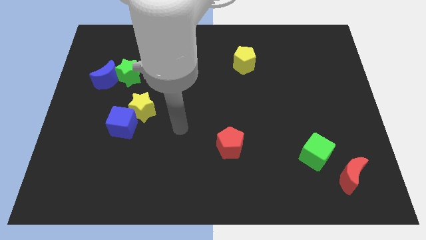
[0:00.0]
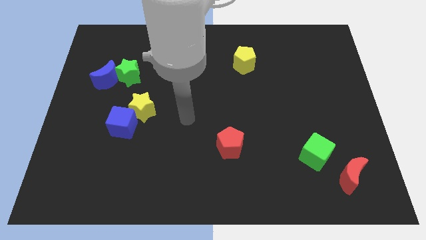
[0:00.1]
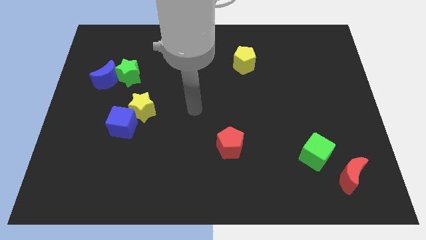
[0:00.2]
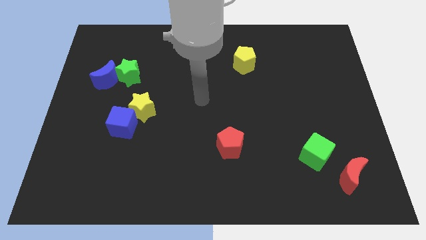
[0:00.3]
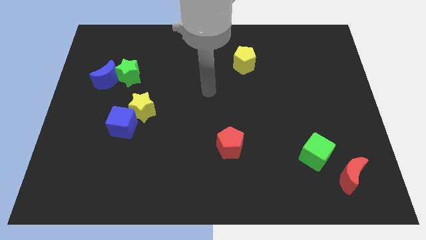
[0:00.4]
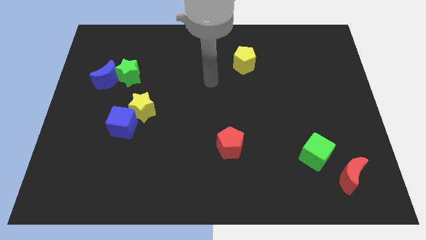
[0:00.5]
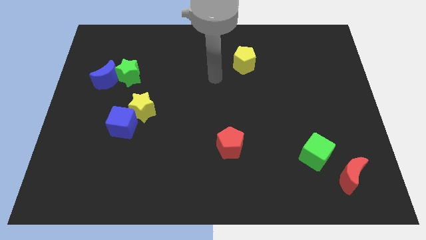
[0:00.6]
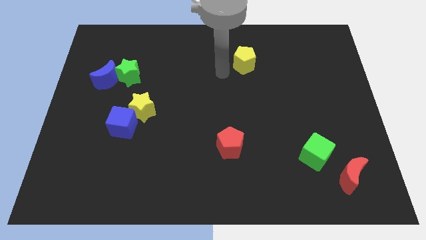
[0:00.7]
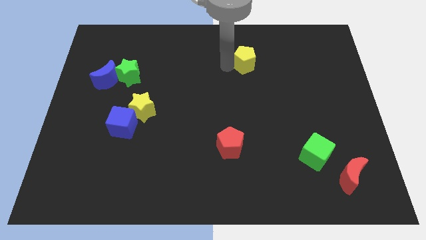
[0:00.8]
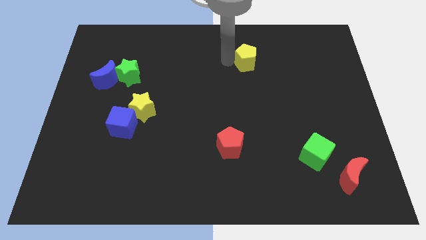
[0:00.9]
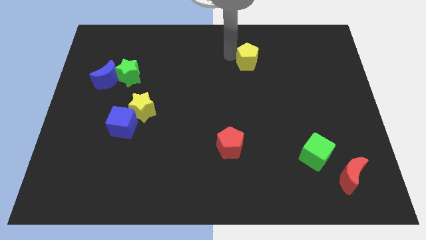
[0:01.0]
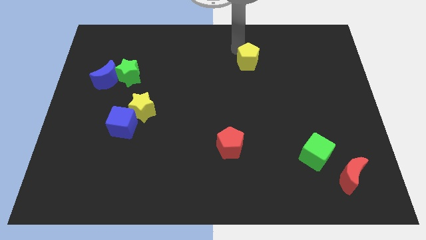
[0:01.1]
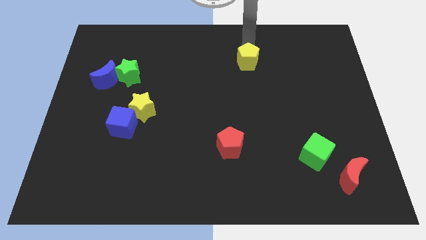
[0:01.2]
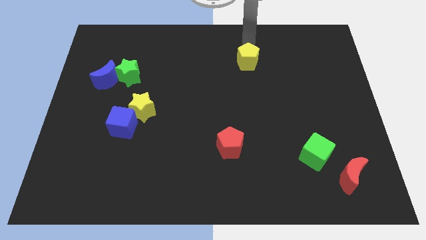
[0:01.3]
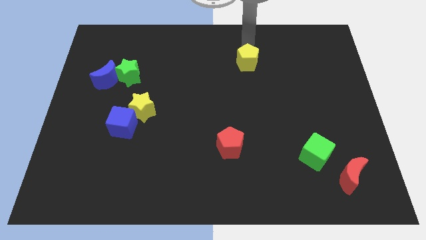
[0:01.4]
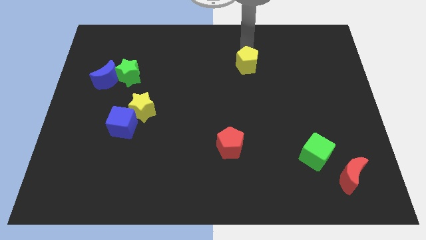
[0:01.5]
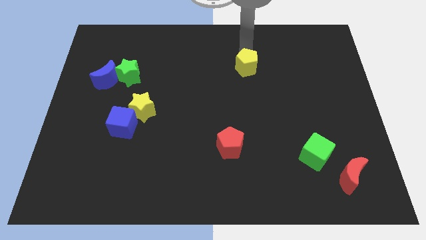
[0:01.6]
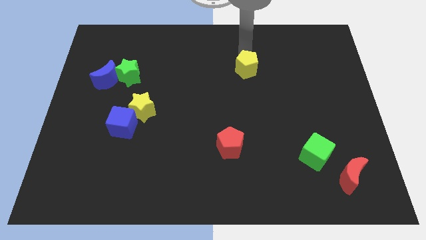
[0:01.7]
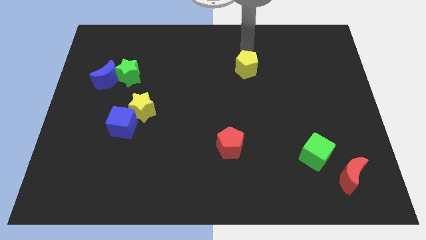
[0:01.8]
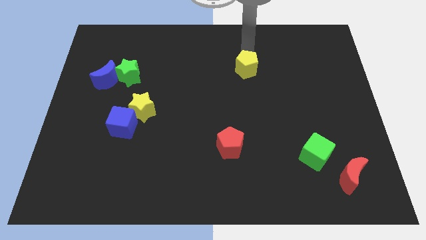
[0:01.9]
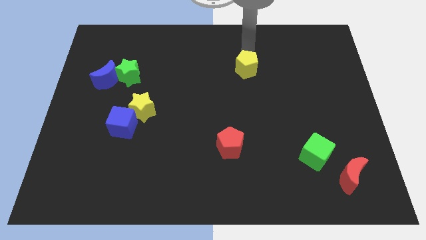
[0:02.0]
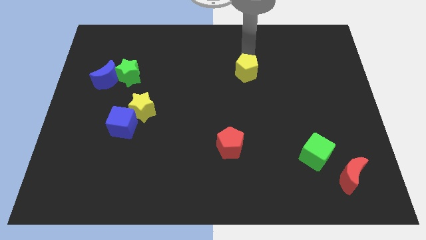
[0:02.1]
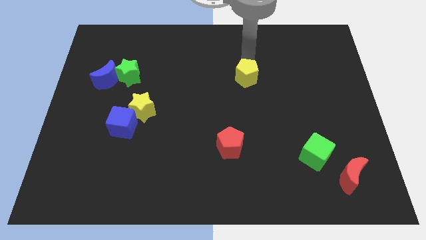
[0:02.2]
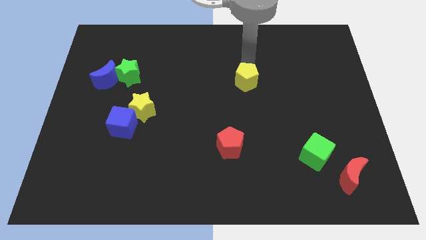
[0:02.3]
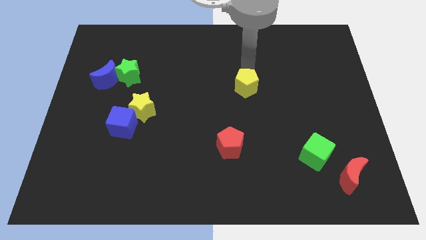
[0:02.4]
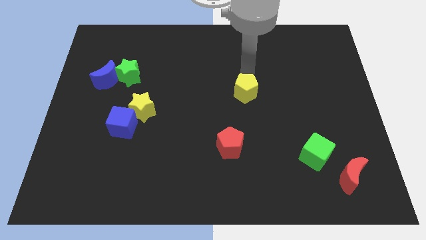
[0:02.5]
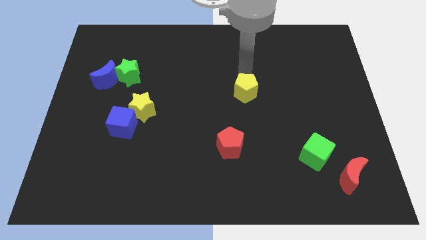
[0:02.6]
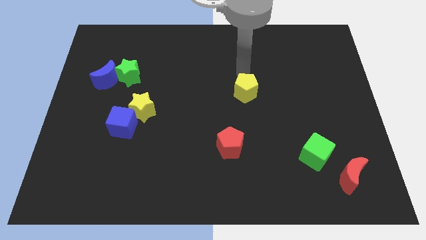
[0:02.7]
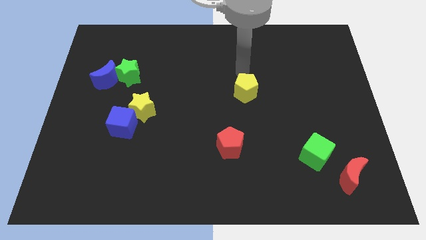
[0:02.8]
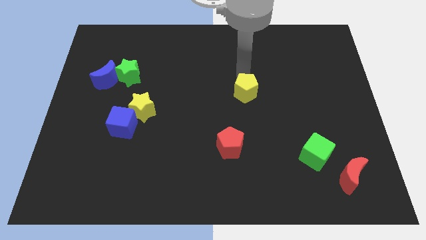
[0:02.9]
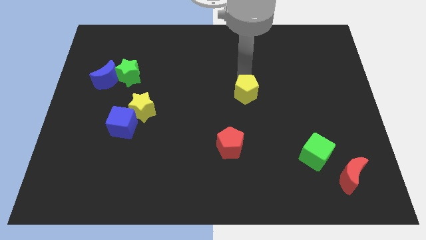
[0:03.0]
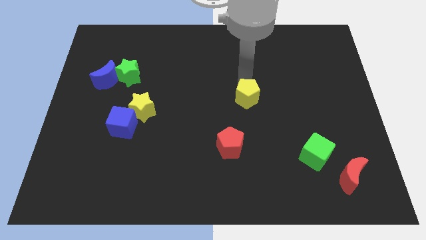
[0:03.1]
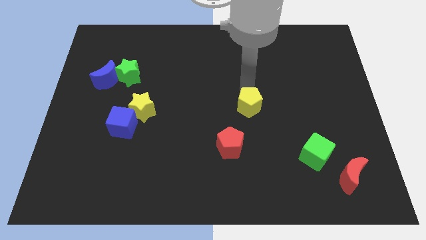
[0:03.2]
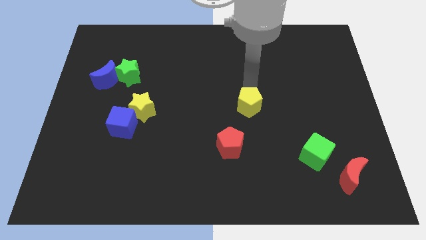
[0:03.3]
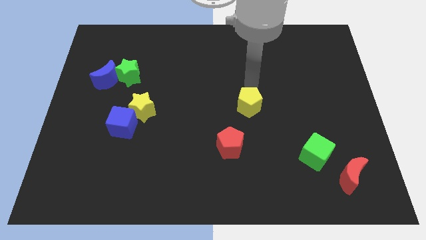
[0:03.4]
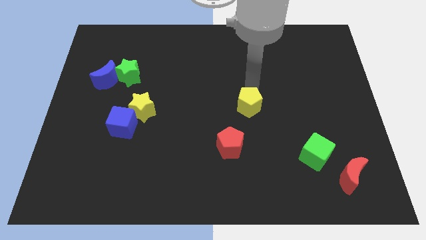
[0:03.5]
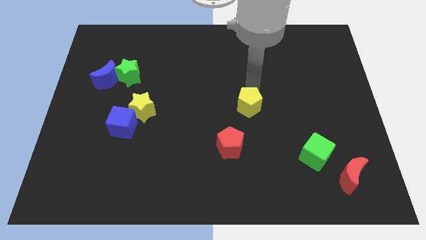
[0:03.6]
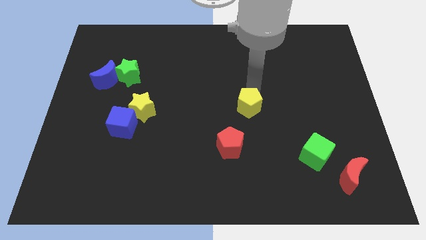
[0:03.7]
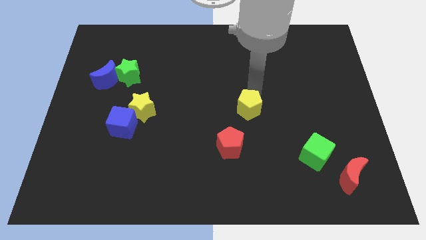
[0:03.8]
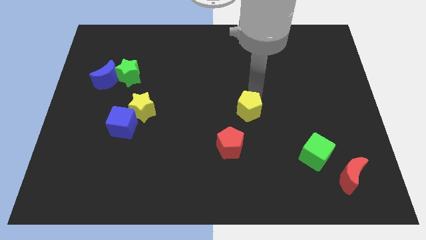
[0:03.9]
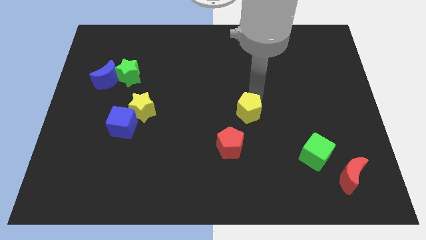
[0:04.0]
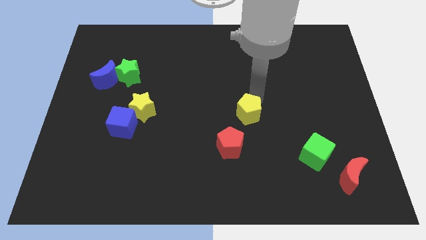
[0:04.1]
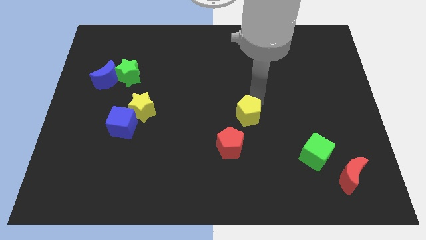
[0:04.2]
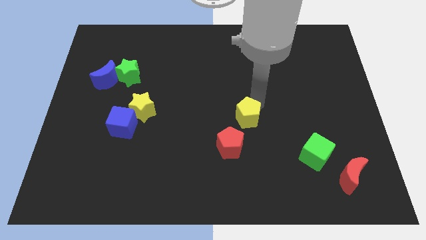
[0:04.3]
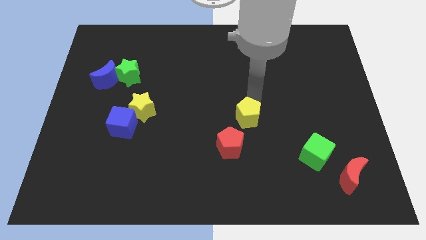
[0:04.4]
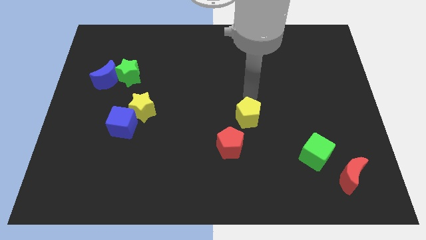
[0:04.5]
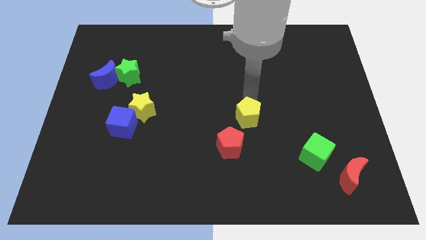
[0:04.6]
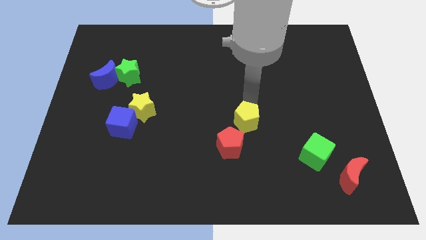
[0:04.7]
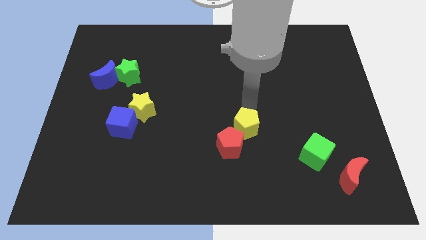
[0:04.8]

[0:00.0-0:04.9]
move the yellow pentagon down

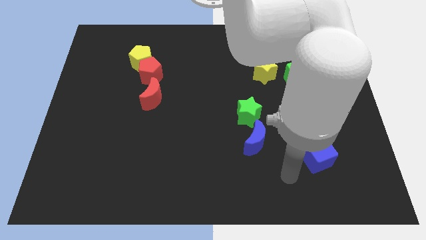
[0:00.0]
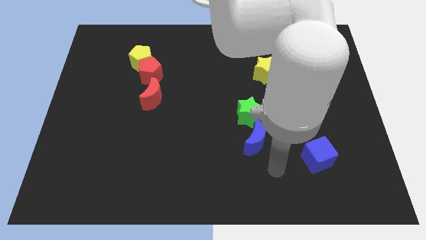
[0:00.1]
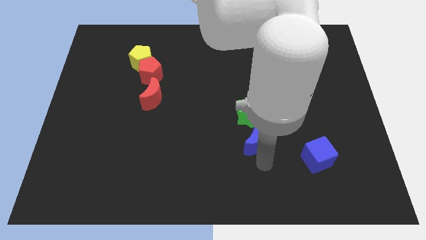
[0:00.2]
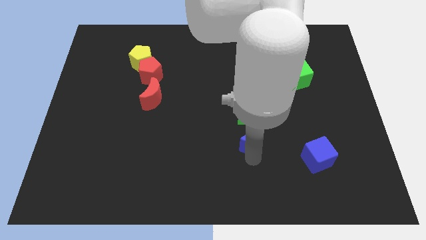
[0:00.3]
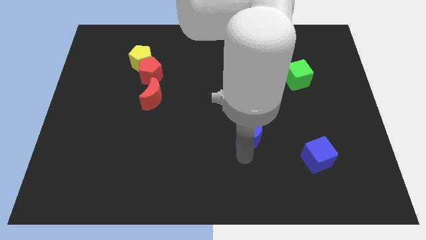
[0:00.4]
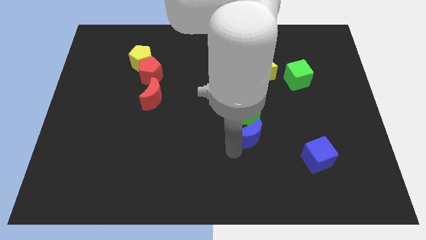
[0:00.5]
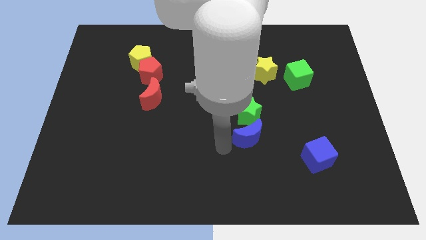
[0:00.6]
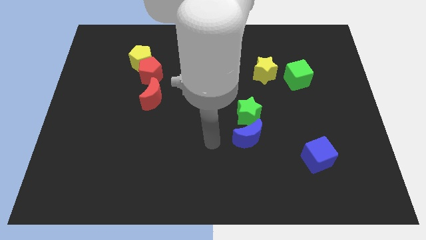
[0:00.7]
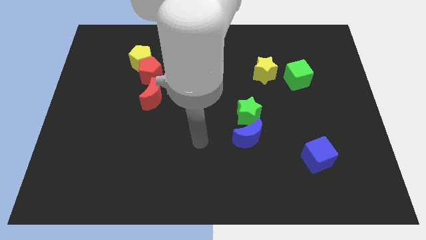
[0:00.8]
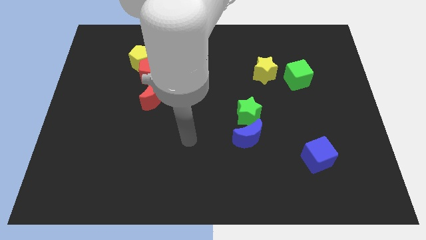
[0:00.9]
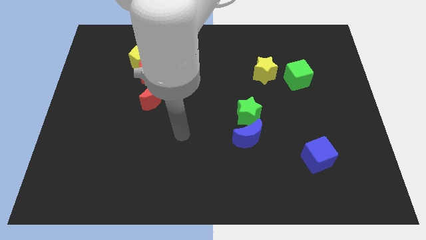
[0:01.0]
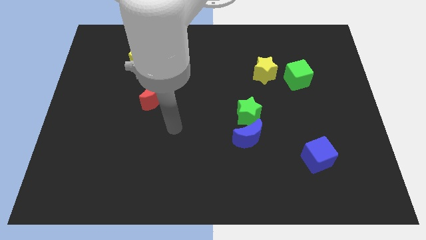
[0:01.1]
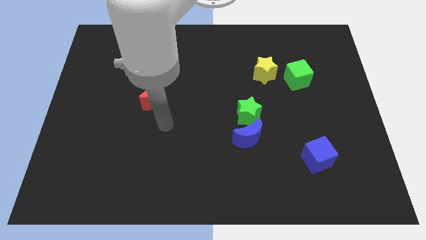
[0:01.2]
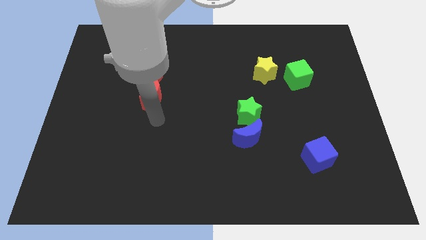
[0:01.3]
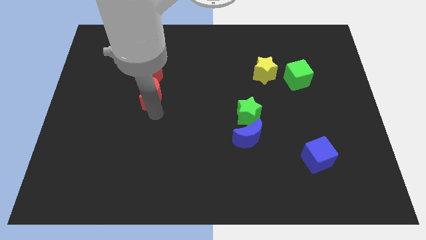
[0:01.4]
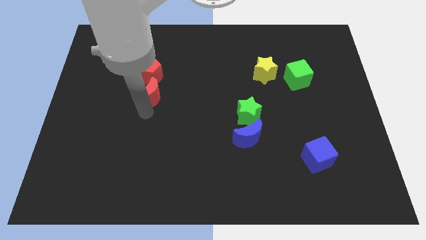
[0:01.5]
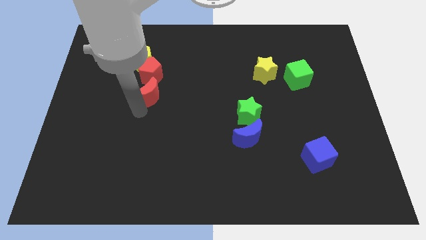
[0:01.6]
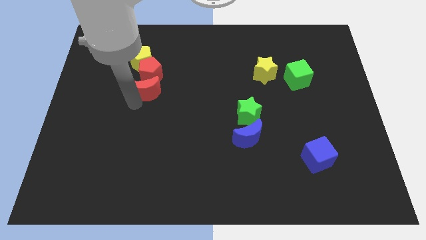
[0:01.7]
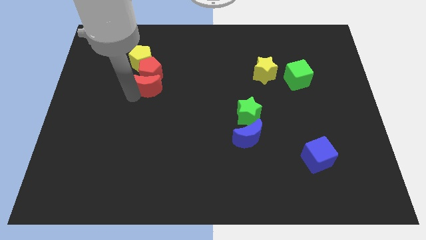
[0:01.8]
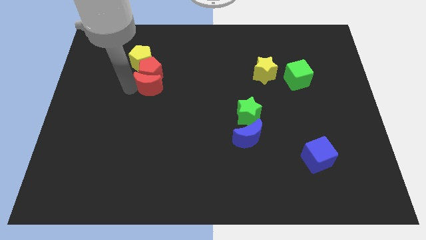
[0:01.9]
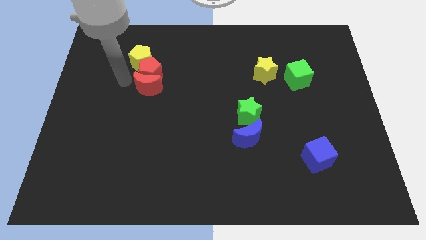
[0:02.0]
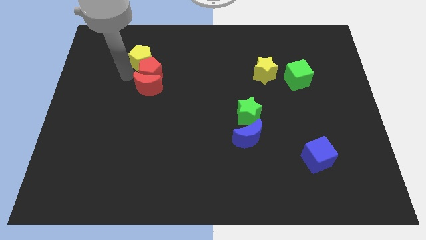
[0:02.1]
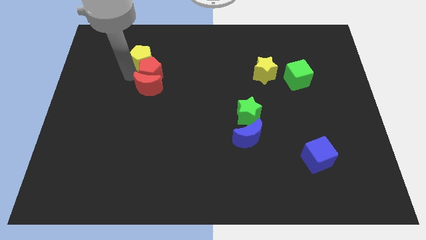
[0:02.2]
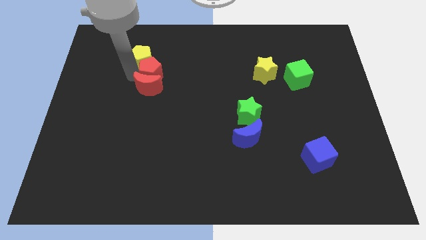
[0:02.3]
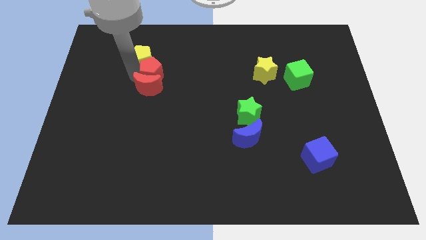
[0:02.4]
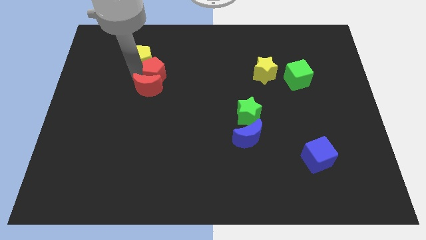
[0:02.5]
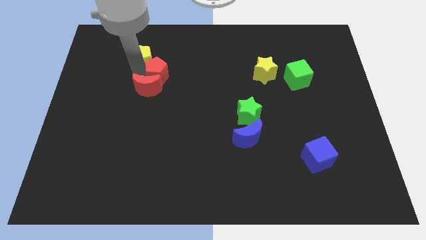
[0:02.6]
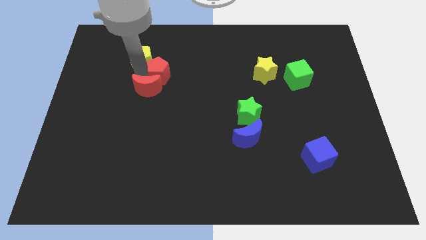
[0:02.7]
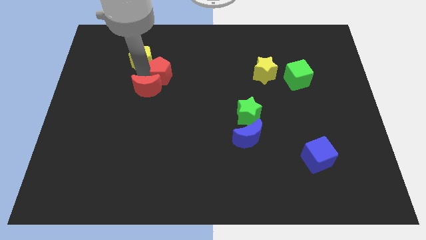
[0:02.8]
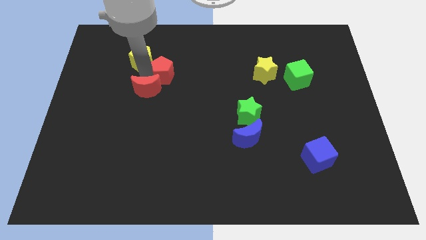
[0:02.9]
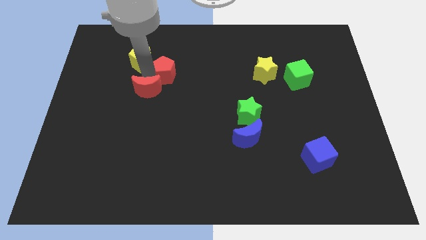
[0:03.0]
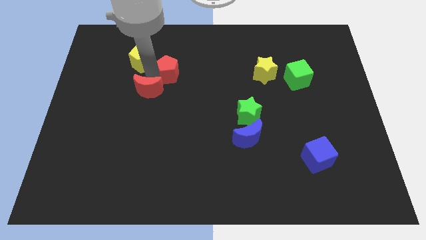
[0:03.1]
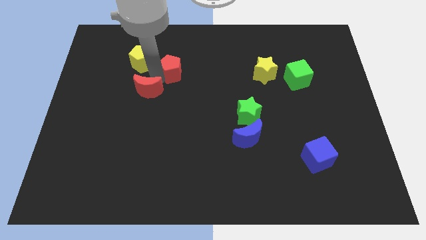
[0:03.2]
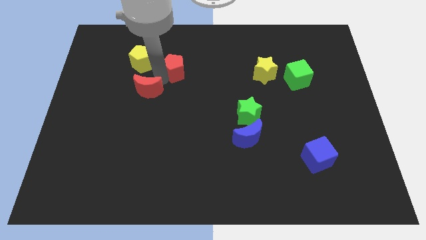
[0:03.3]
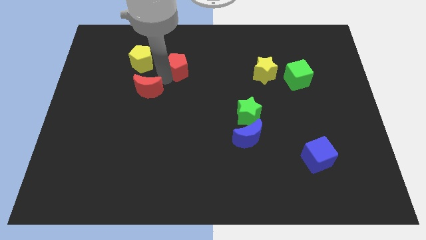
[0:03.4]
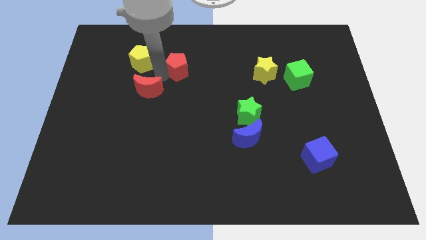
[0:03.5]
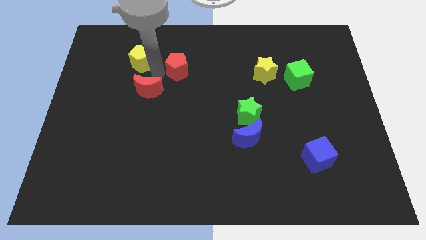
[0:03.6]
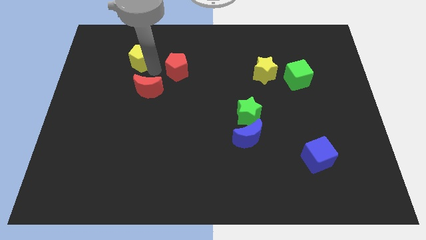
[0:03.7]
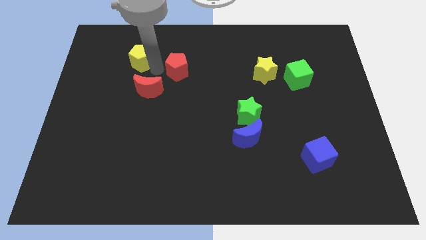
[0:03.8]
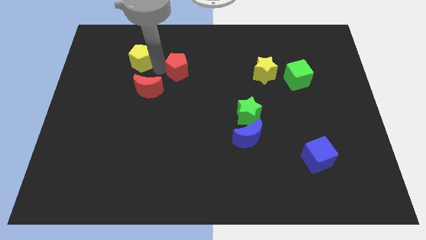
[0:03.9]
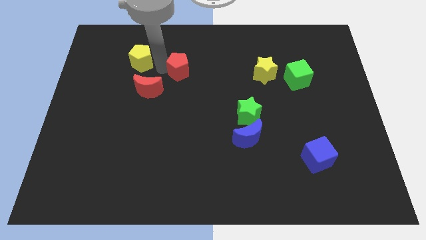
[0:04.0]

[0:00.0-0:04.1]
move the red pentagon to the right a little bit
